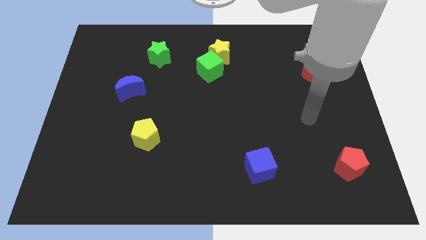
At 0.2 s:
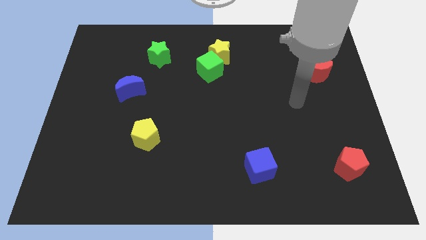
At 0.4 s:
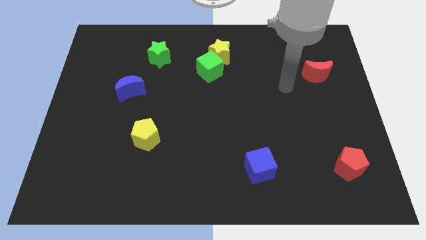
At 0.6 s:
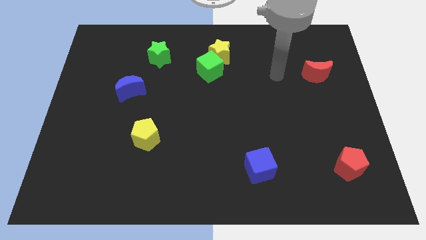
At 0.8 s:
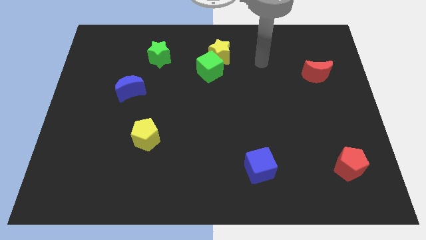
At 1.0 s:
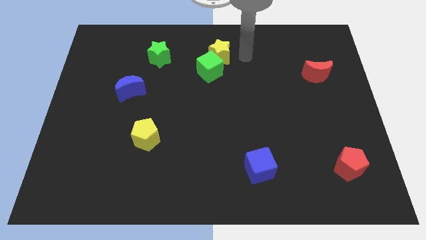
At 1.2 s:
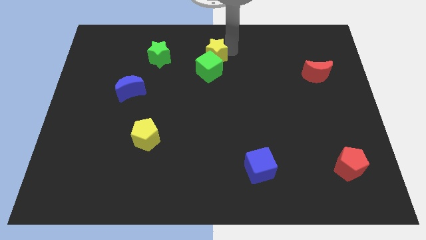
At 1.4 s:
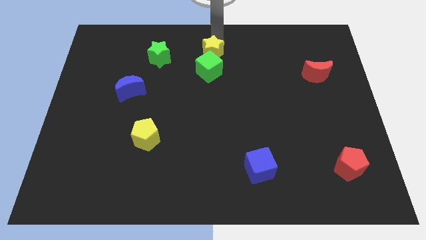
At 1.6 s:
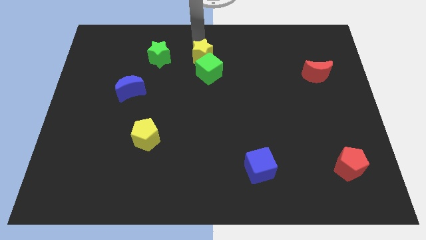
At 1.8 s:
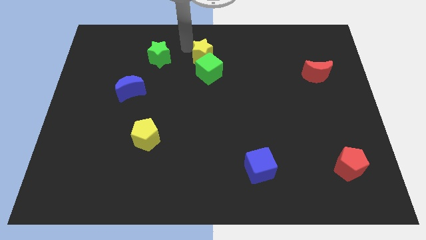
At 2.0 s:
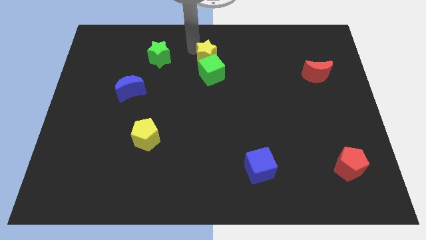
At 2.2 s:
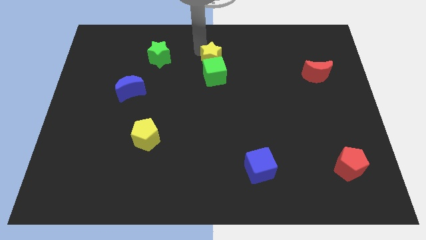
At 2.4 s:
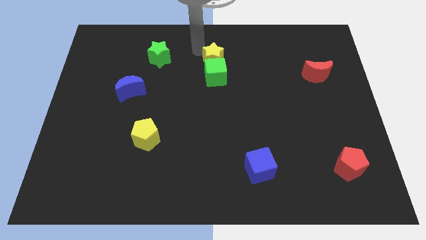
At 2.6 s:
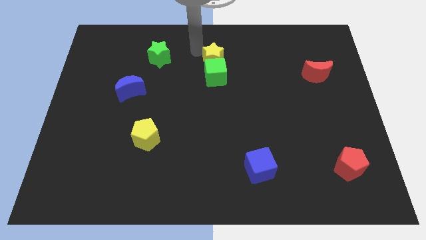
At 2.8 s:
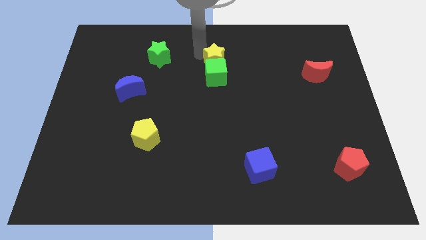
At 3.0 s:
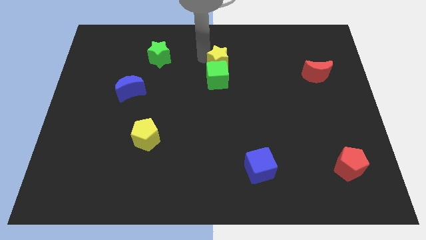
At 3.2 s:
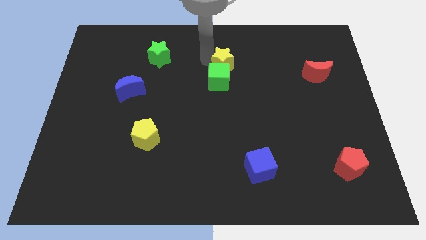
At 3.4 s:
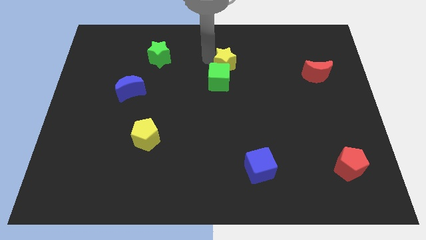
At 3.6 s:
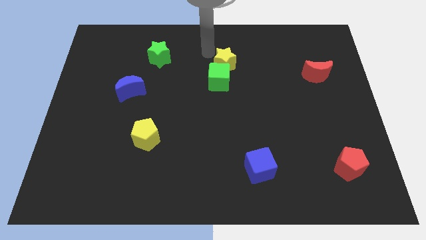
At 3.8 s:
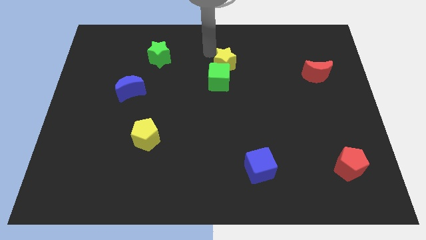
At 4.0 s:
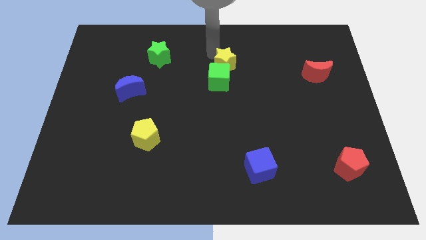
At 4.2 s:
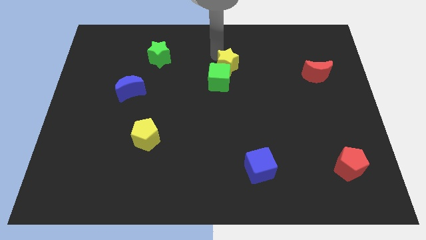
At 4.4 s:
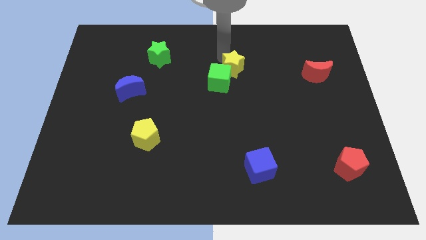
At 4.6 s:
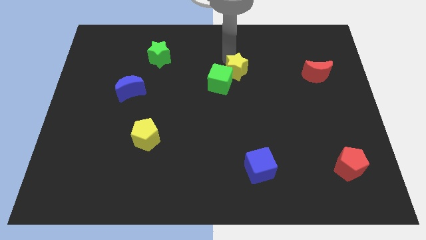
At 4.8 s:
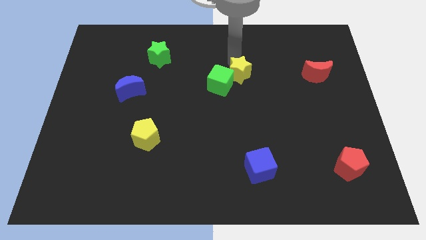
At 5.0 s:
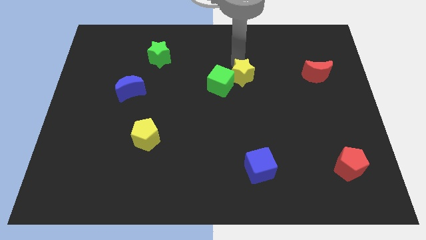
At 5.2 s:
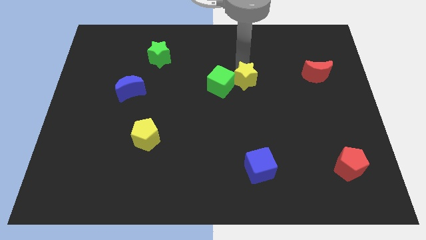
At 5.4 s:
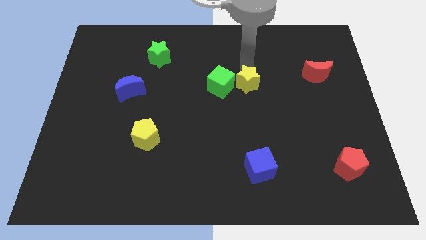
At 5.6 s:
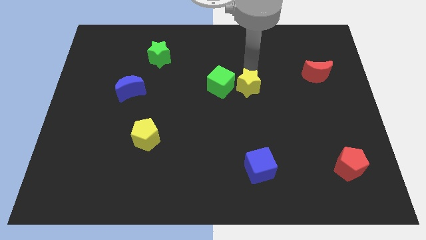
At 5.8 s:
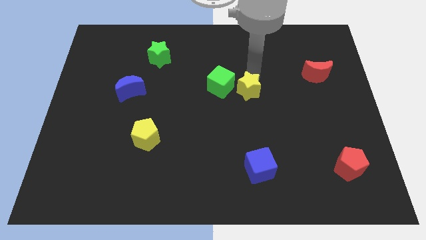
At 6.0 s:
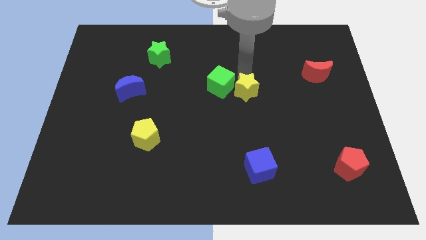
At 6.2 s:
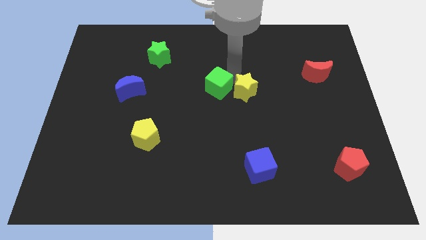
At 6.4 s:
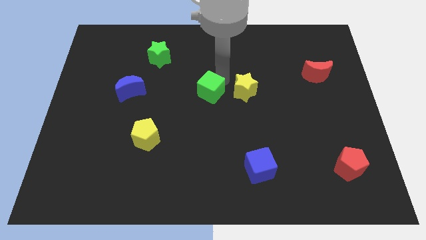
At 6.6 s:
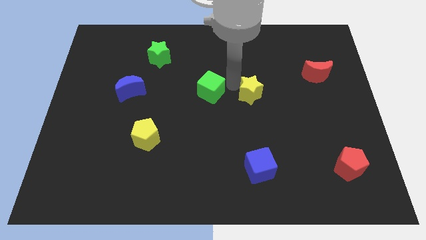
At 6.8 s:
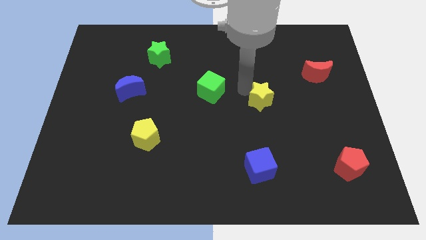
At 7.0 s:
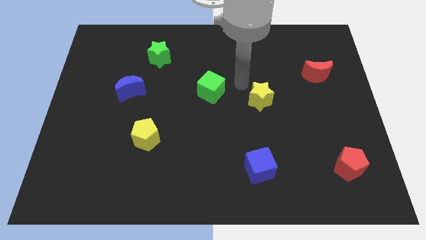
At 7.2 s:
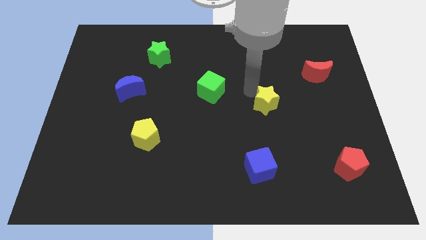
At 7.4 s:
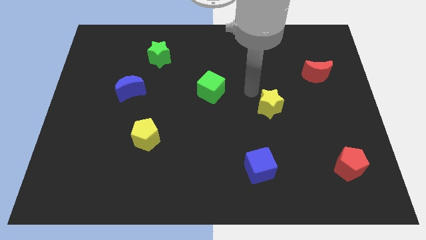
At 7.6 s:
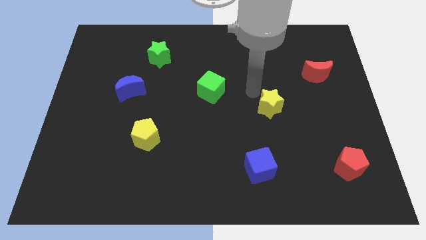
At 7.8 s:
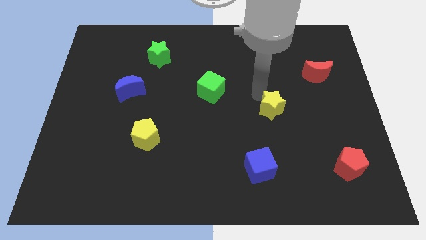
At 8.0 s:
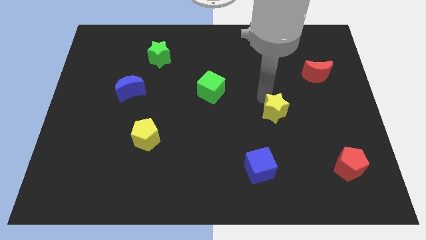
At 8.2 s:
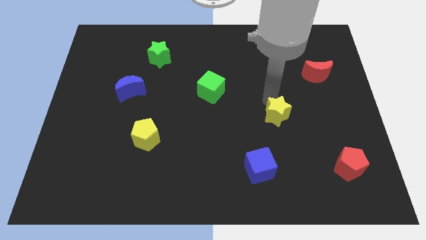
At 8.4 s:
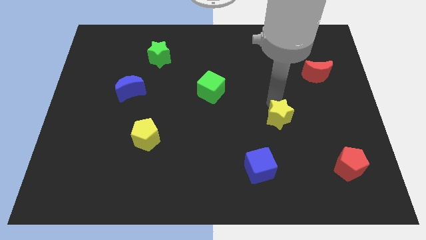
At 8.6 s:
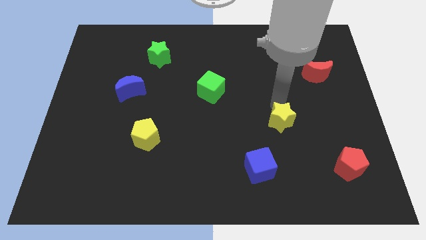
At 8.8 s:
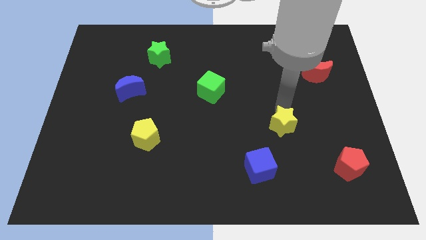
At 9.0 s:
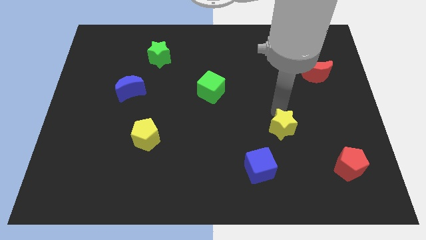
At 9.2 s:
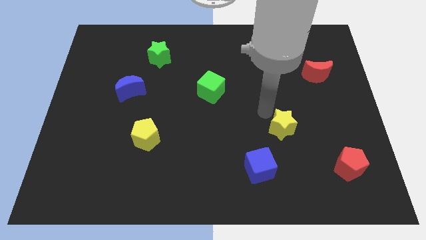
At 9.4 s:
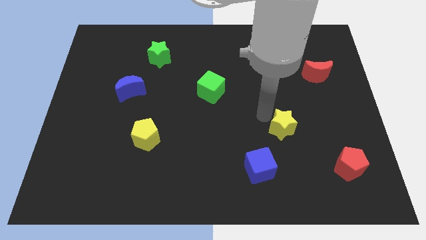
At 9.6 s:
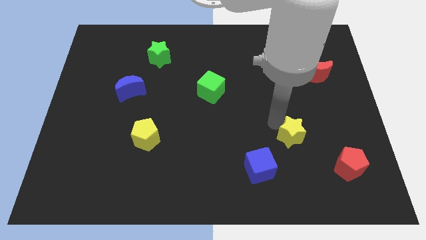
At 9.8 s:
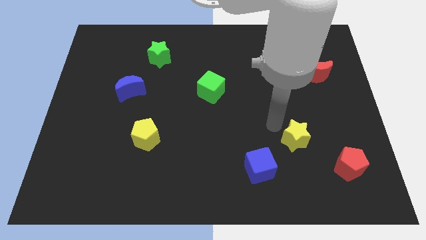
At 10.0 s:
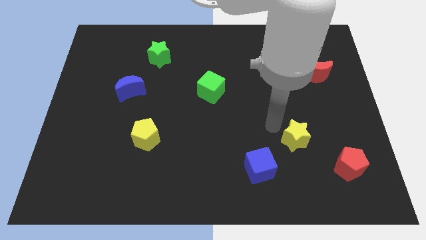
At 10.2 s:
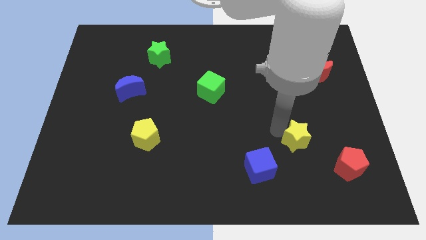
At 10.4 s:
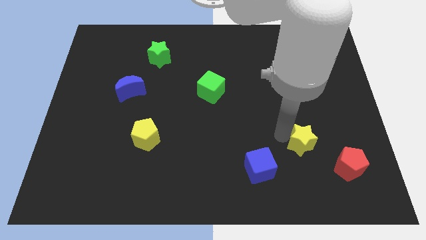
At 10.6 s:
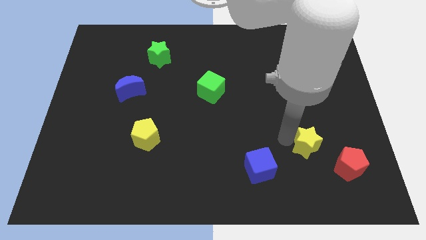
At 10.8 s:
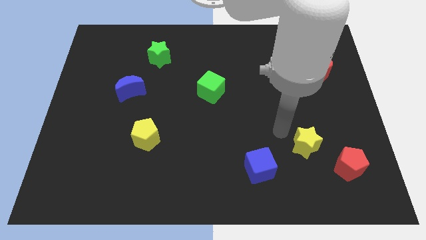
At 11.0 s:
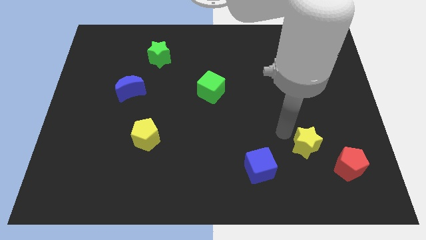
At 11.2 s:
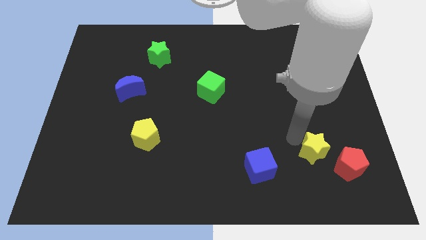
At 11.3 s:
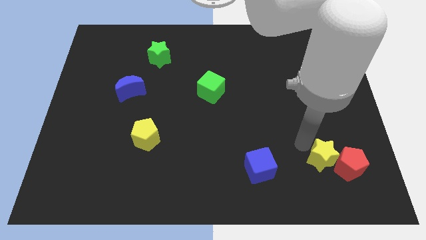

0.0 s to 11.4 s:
put the yellow star close to the red pentagon

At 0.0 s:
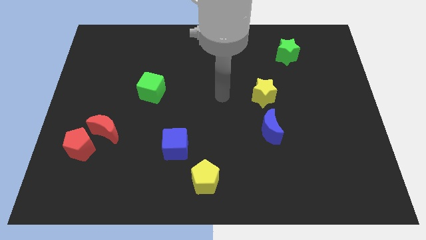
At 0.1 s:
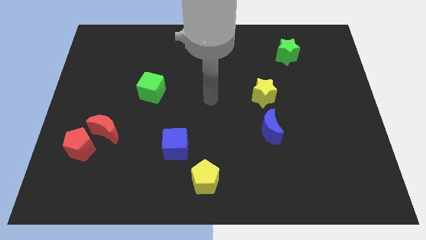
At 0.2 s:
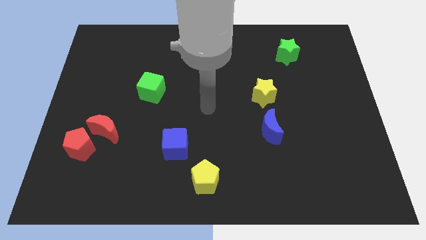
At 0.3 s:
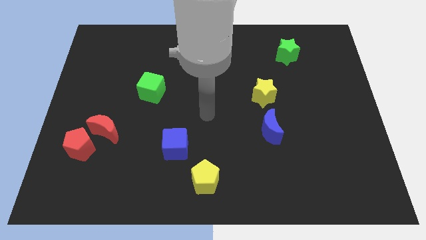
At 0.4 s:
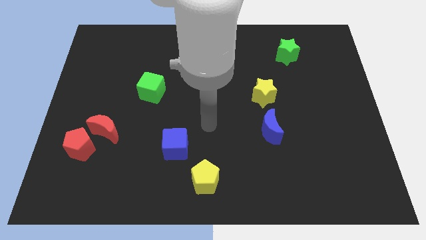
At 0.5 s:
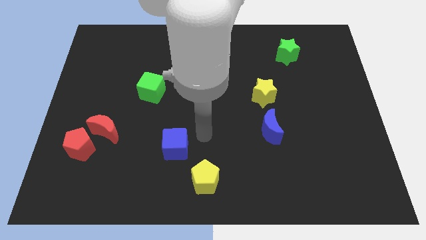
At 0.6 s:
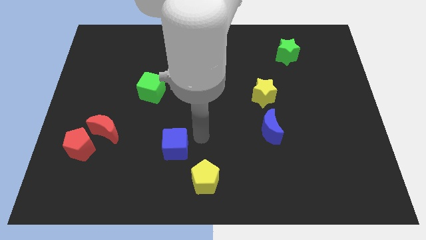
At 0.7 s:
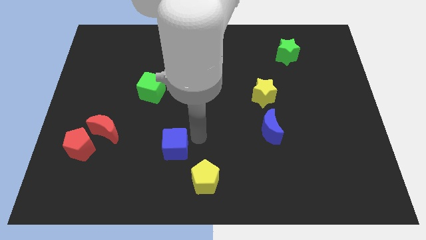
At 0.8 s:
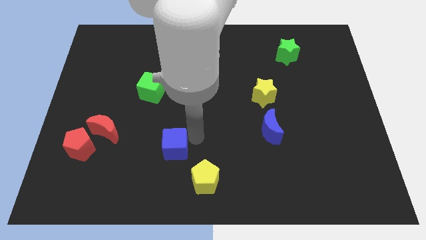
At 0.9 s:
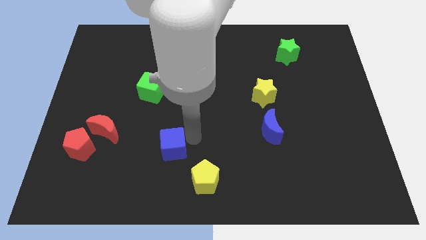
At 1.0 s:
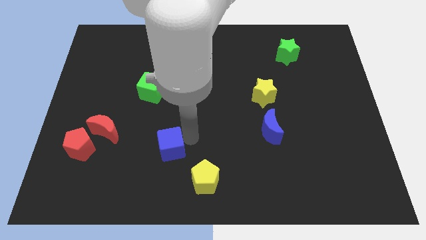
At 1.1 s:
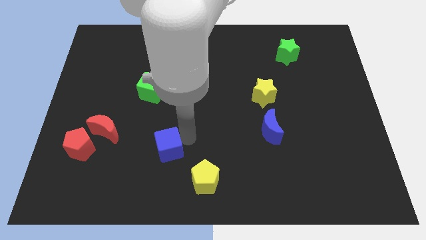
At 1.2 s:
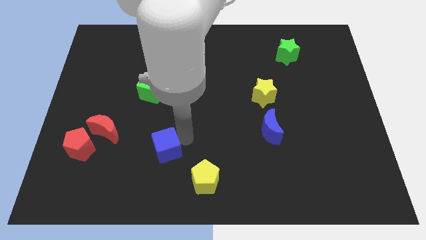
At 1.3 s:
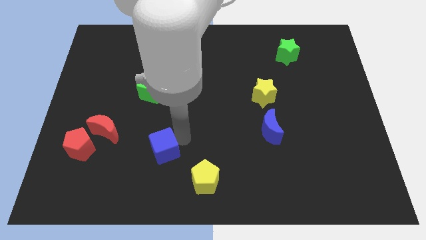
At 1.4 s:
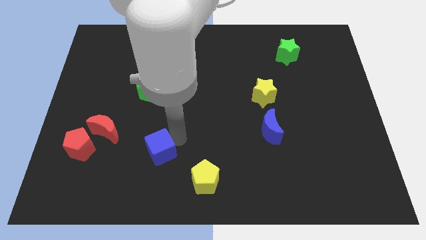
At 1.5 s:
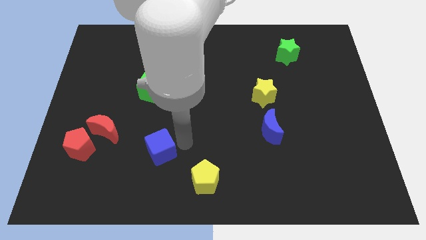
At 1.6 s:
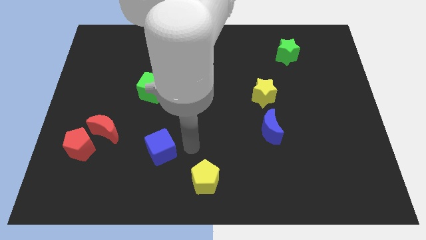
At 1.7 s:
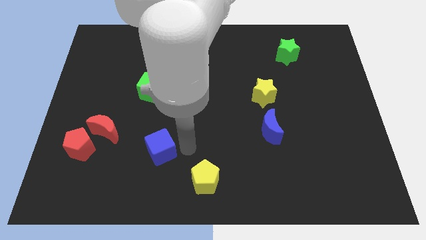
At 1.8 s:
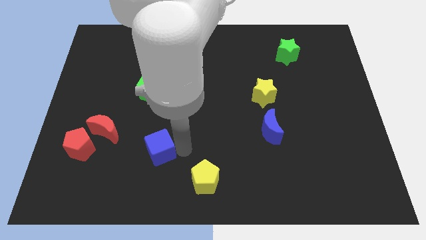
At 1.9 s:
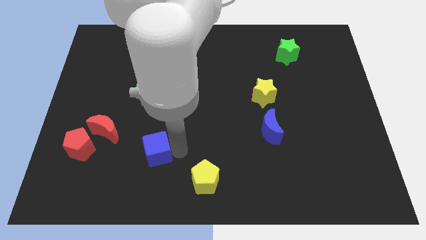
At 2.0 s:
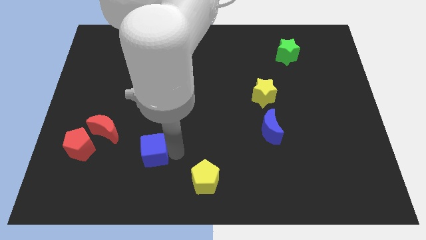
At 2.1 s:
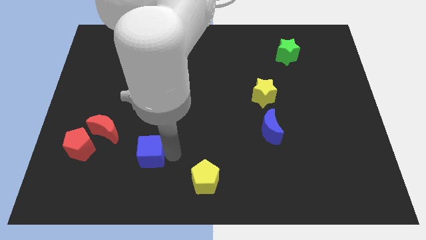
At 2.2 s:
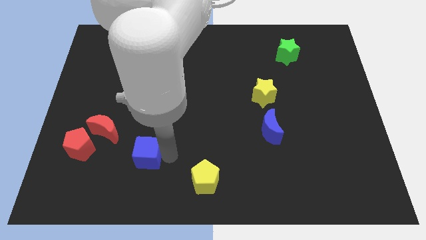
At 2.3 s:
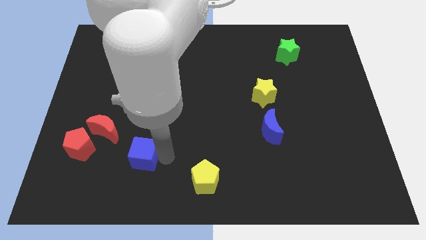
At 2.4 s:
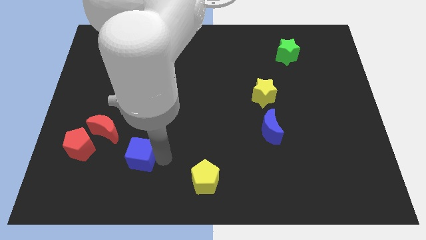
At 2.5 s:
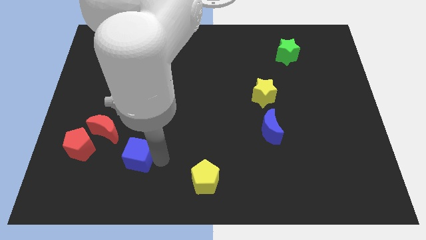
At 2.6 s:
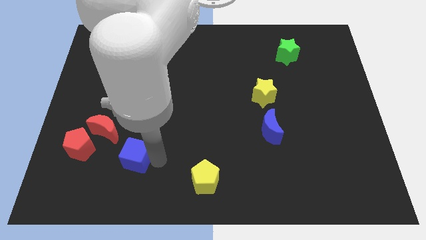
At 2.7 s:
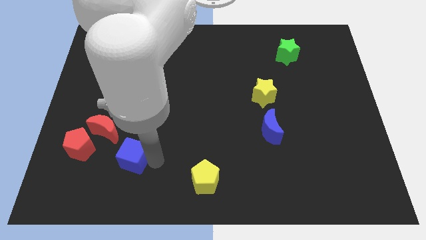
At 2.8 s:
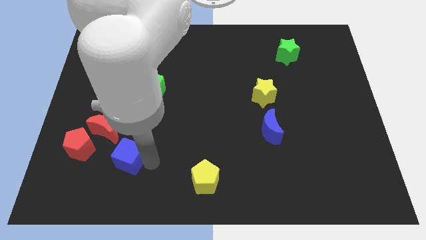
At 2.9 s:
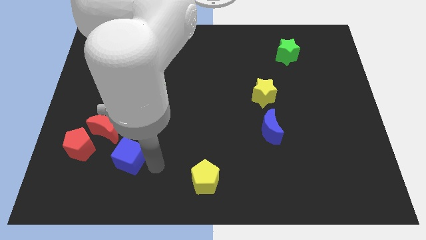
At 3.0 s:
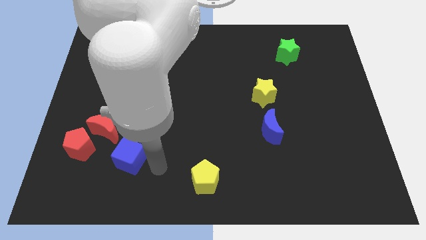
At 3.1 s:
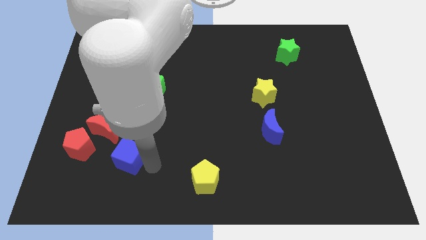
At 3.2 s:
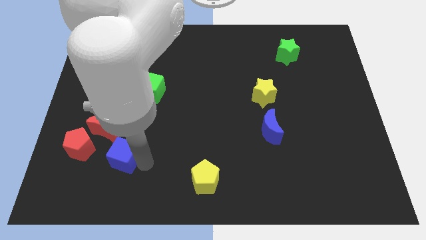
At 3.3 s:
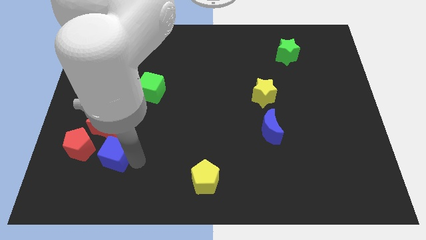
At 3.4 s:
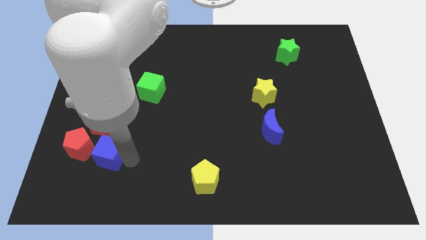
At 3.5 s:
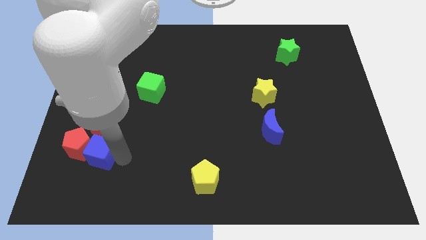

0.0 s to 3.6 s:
slide the blue cube next to the red pentagon
